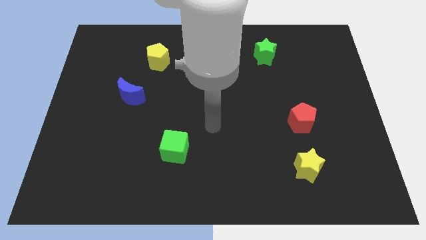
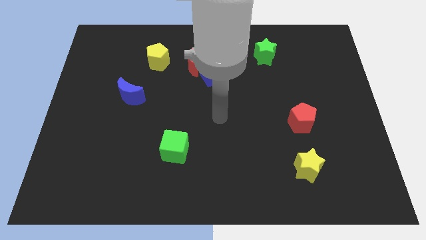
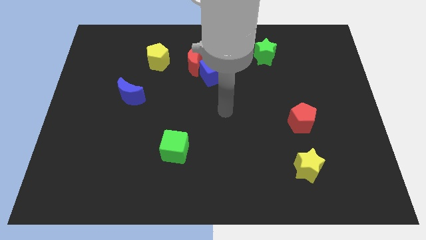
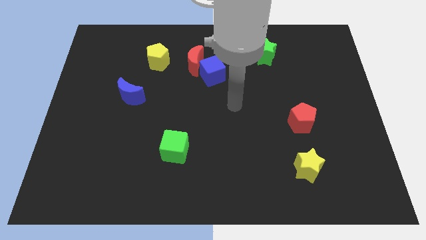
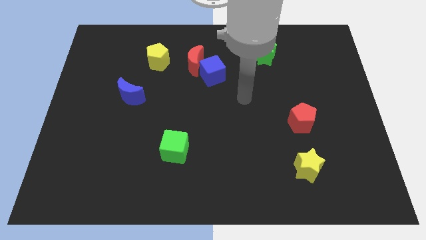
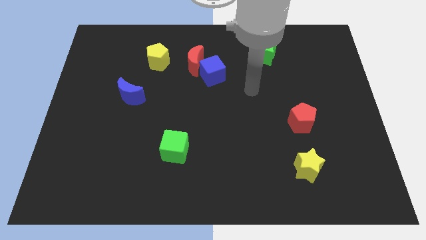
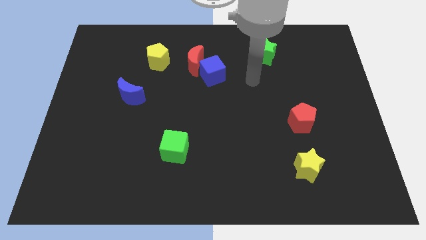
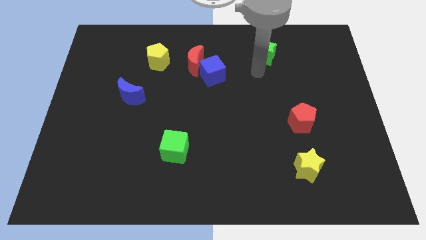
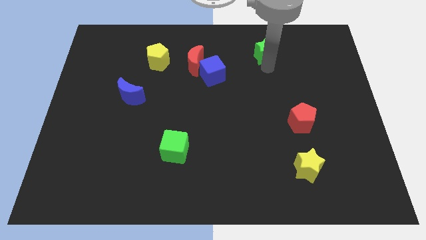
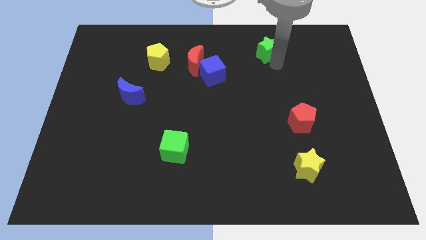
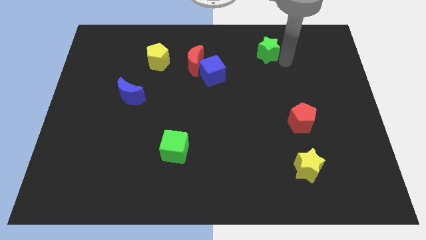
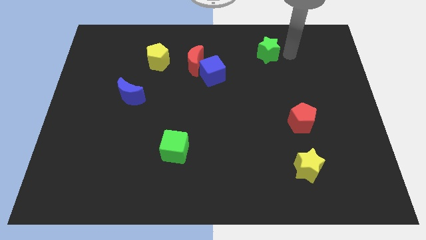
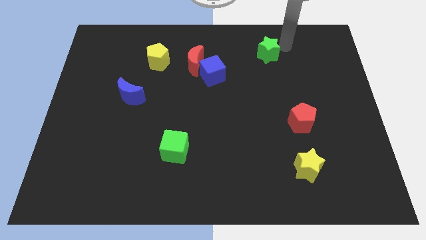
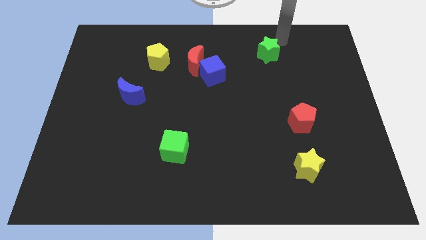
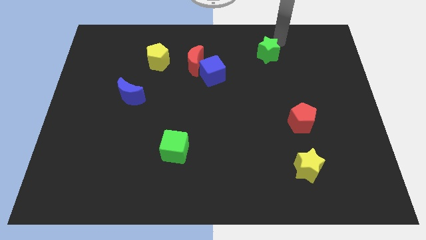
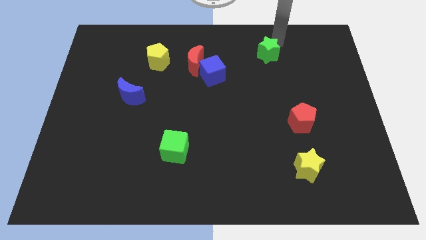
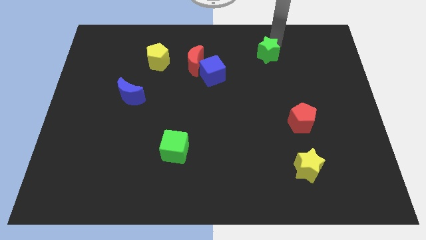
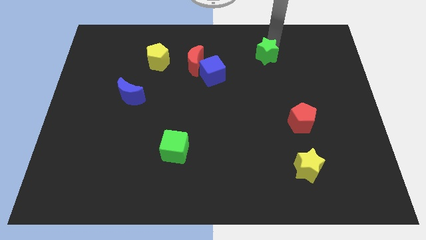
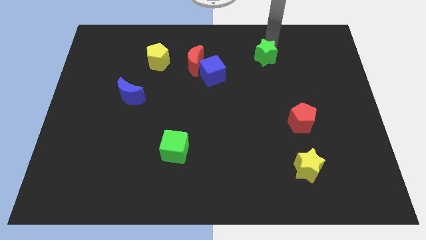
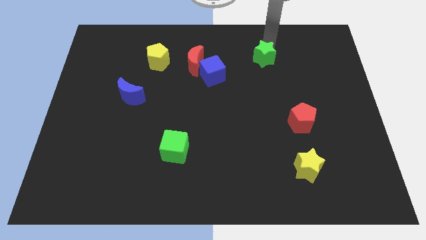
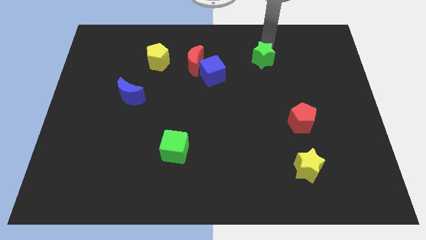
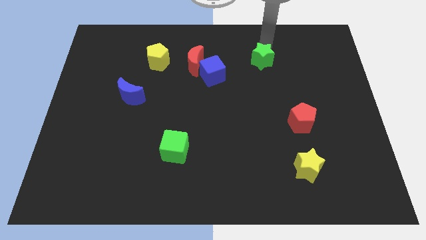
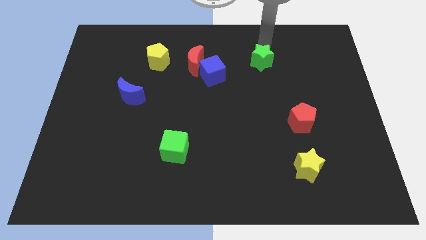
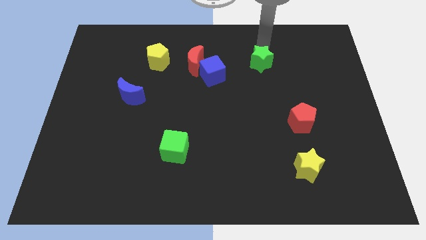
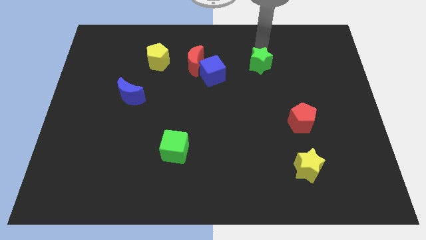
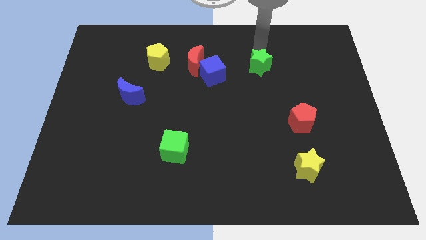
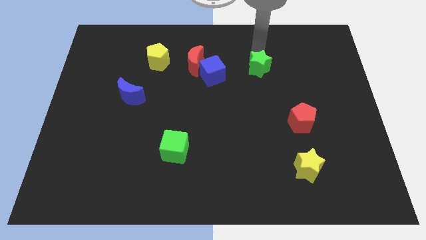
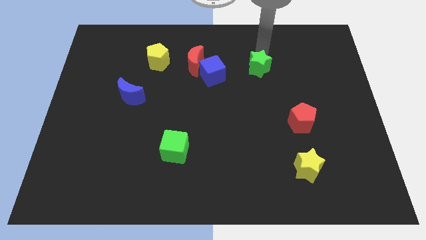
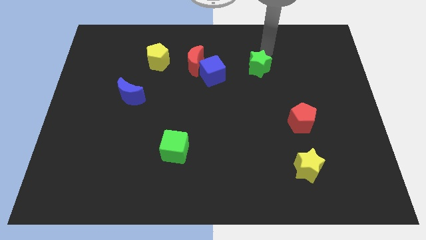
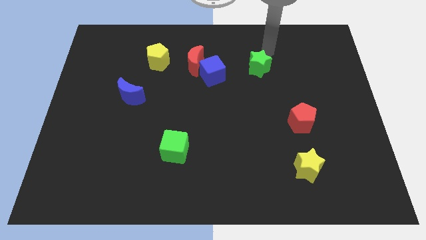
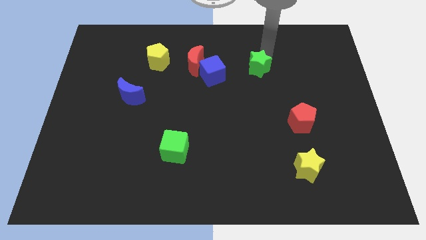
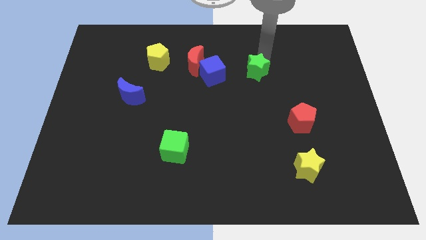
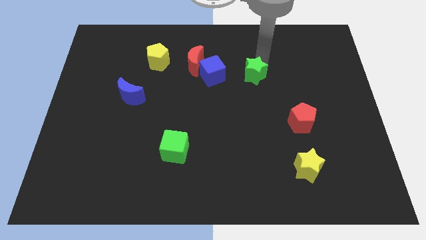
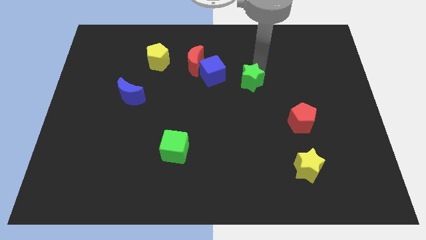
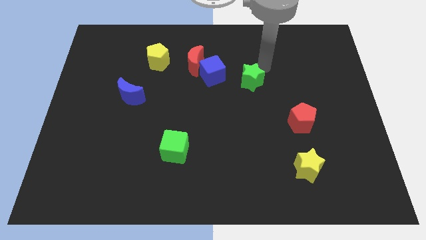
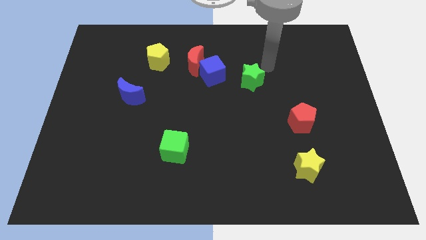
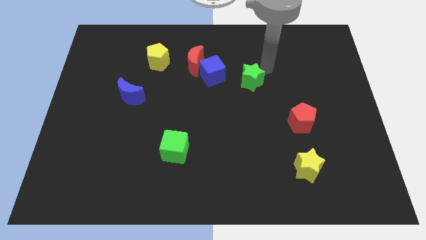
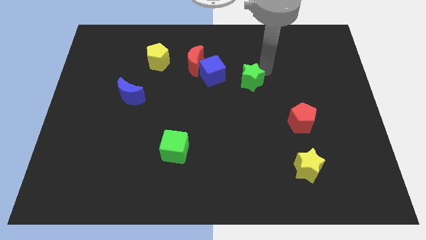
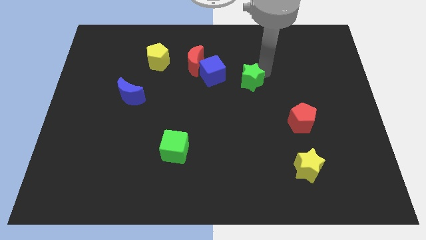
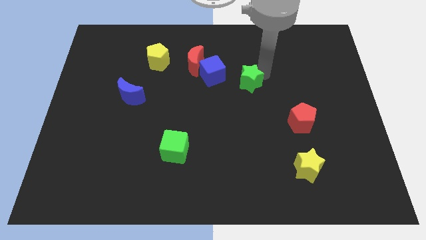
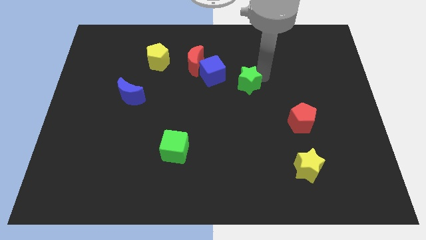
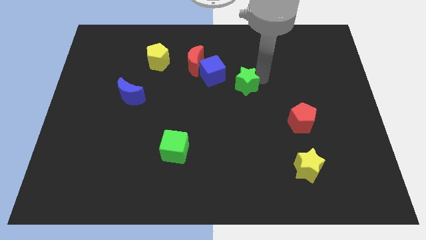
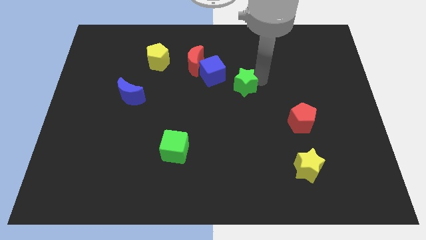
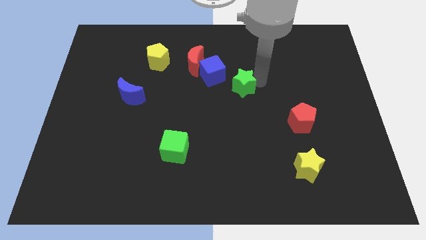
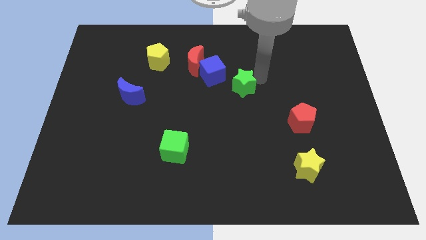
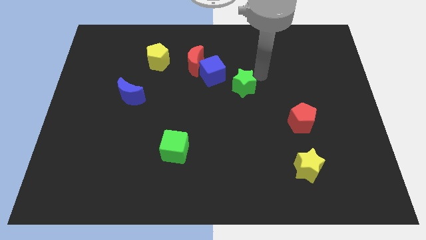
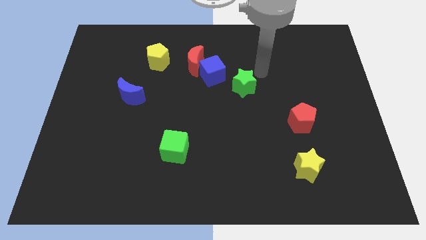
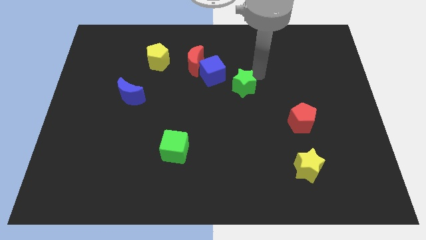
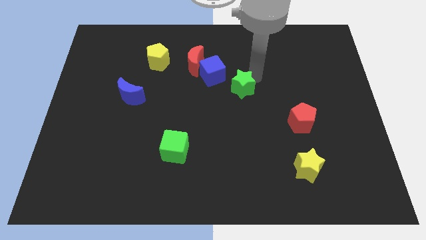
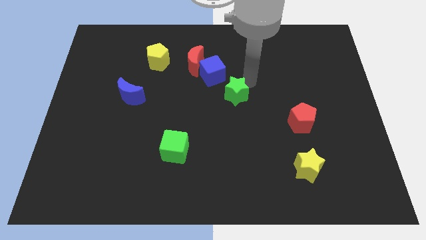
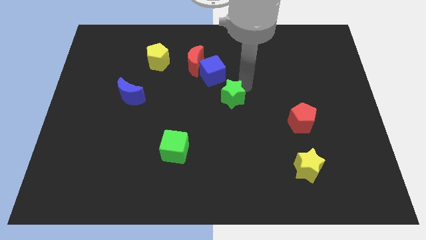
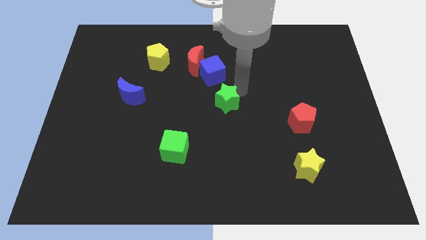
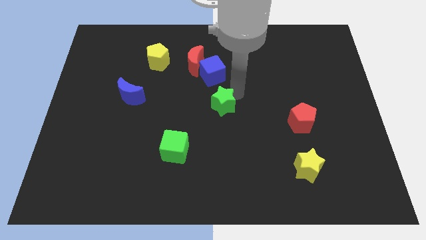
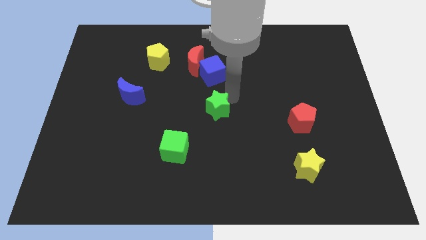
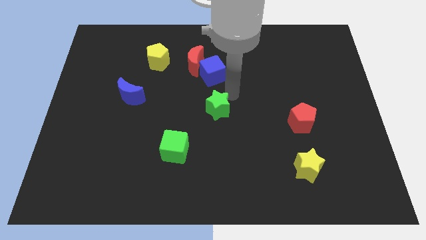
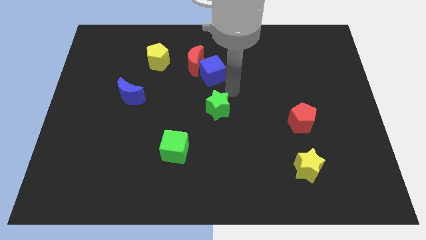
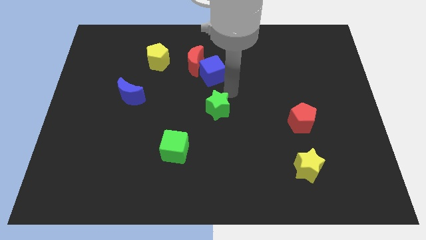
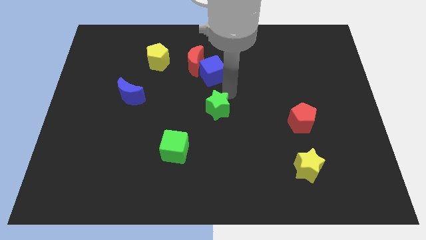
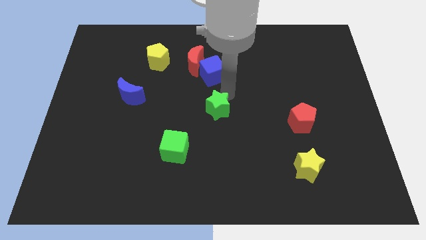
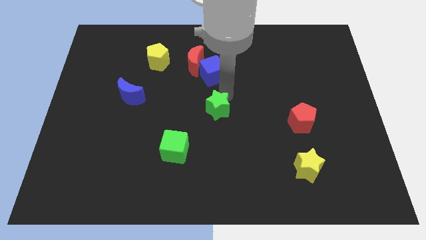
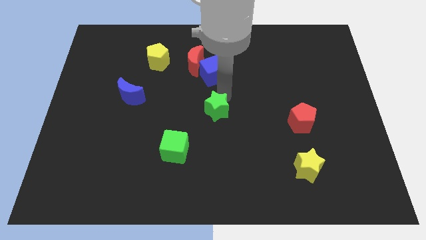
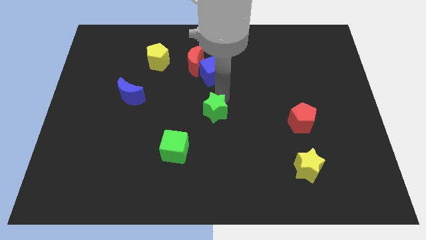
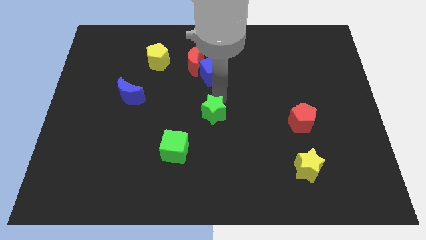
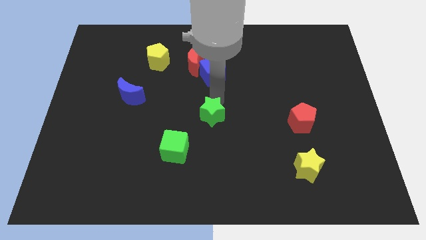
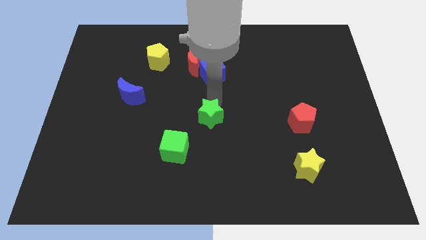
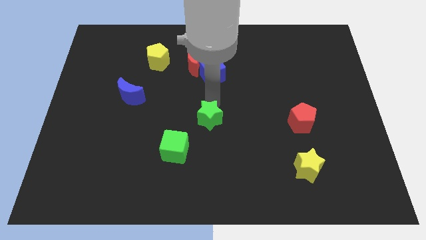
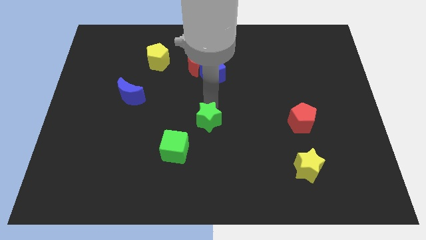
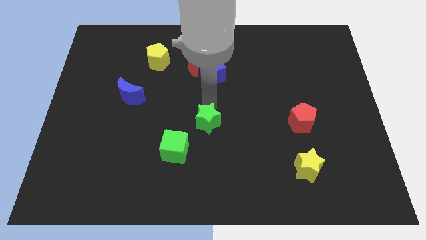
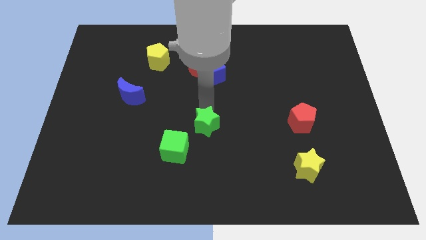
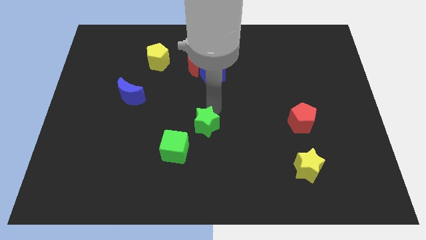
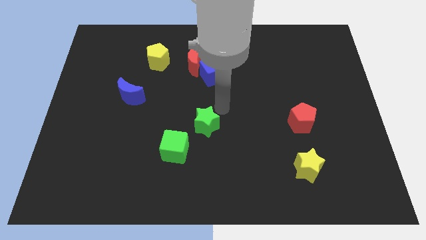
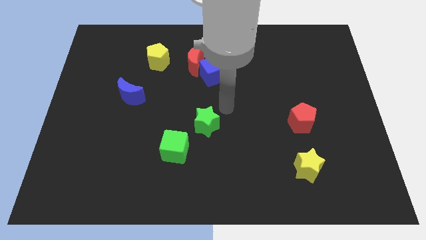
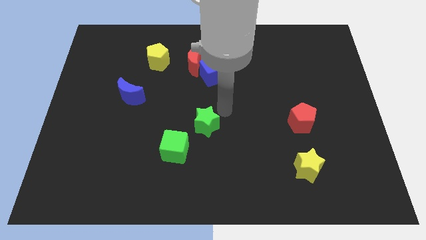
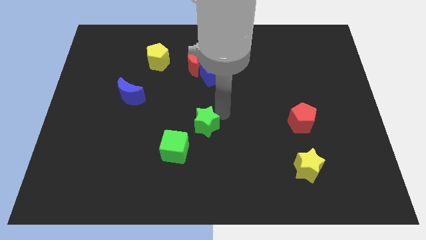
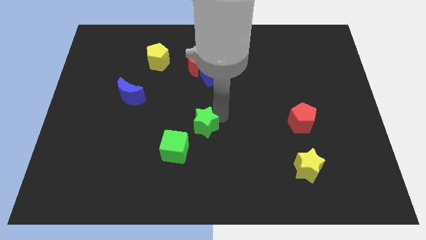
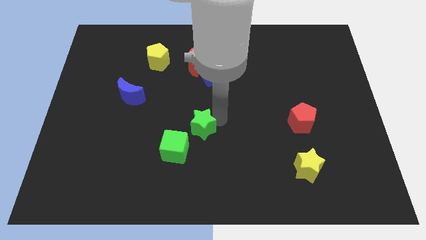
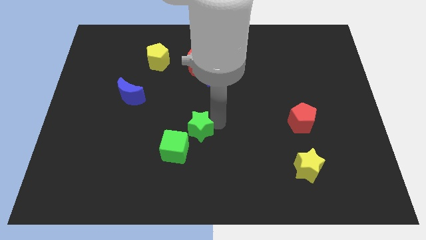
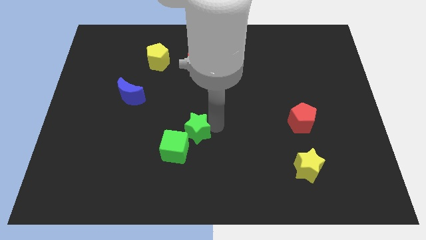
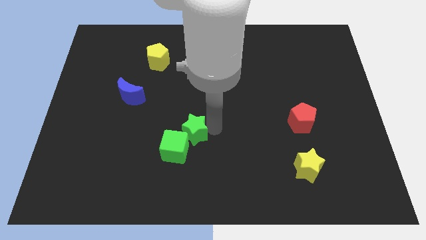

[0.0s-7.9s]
slide the green star close to the green cube
